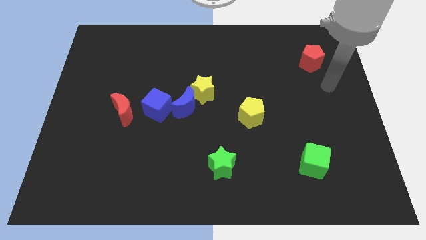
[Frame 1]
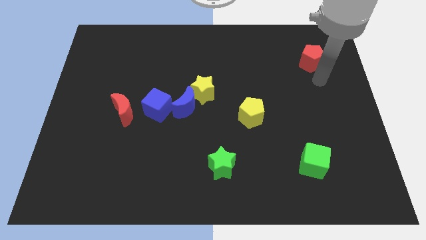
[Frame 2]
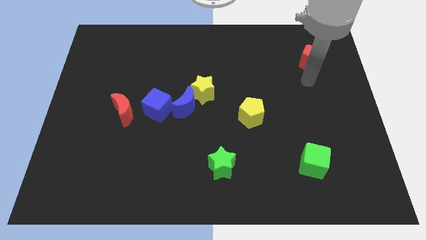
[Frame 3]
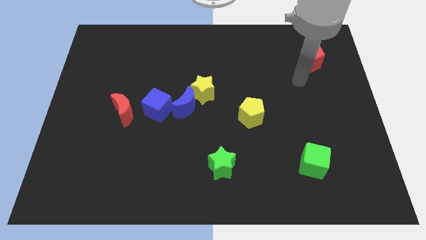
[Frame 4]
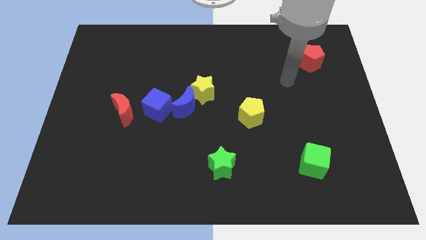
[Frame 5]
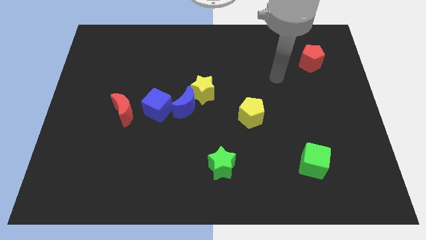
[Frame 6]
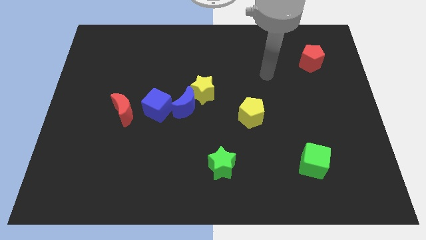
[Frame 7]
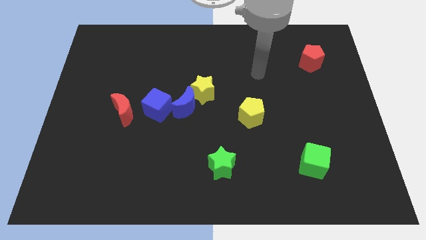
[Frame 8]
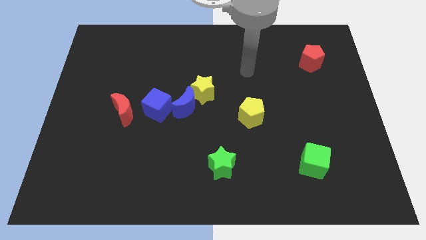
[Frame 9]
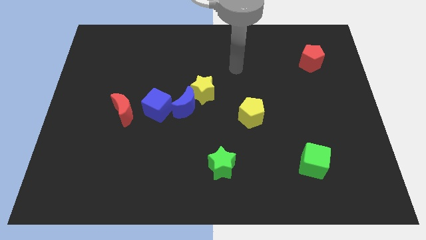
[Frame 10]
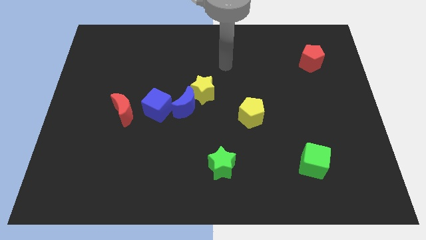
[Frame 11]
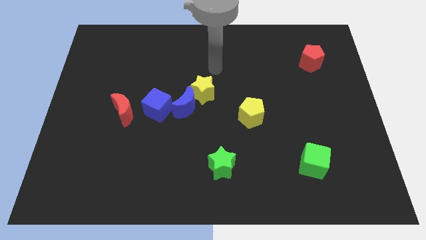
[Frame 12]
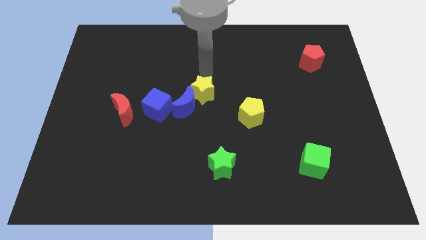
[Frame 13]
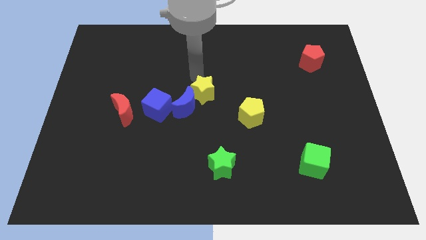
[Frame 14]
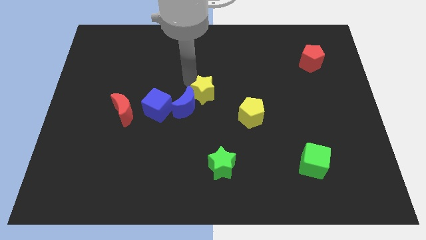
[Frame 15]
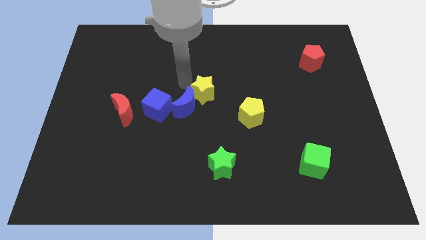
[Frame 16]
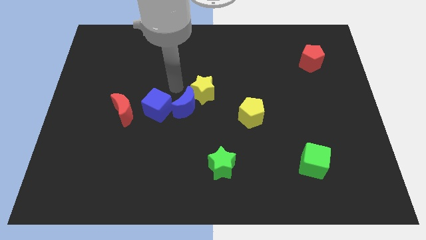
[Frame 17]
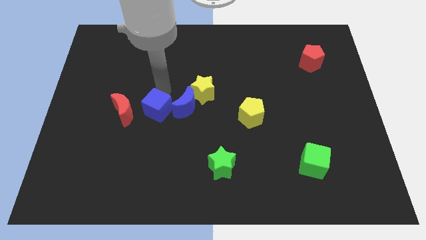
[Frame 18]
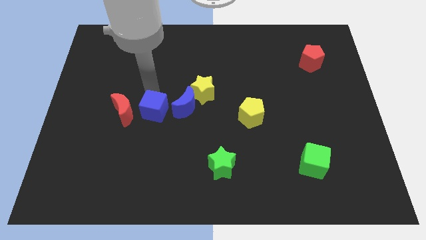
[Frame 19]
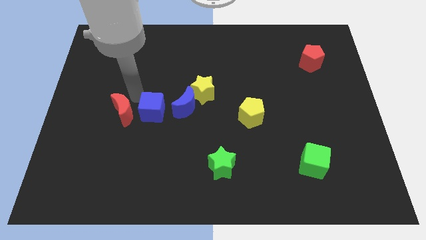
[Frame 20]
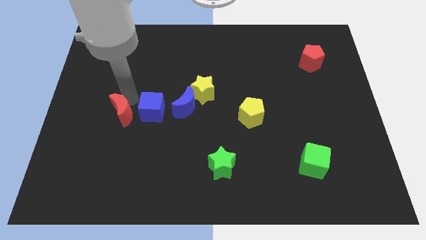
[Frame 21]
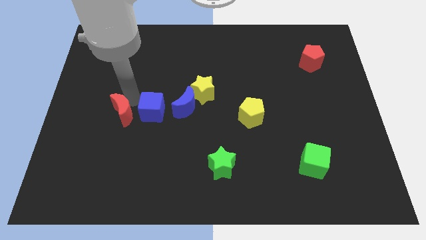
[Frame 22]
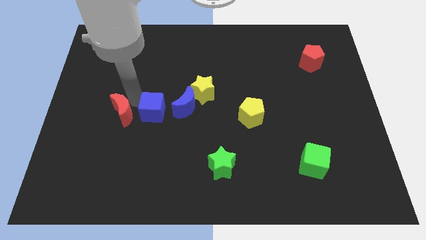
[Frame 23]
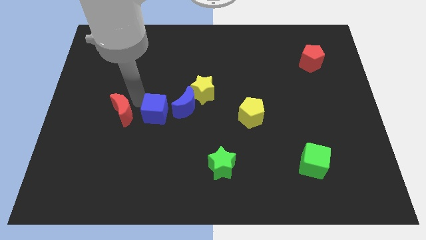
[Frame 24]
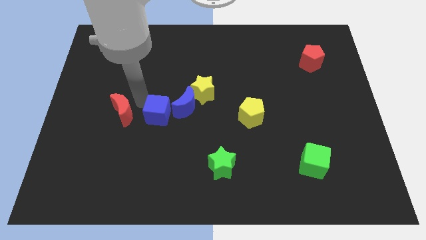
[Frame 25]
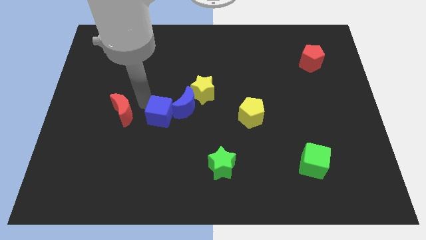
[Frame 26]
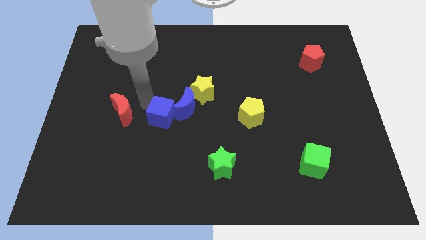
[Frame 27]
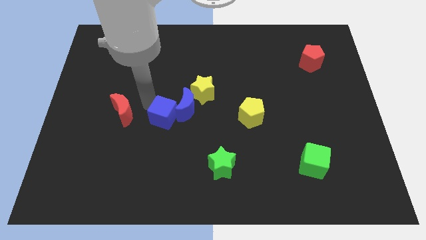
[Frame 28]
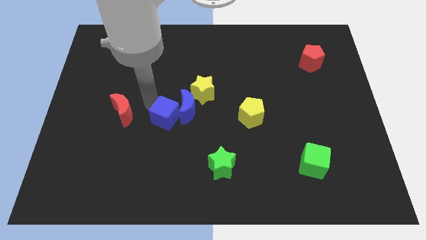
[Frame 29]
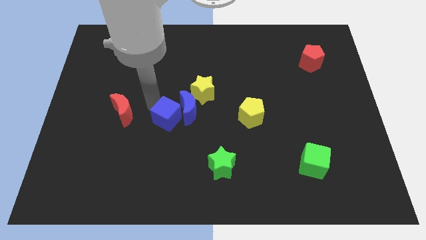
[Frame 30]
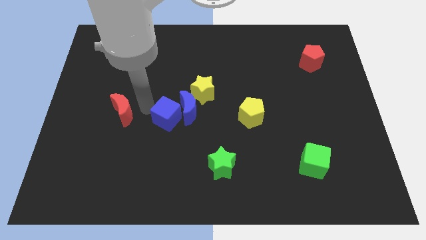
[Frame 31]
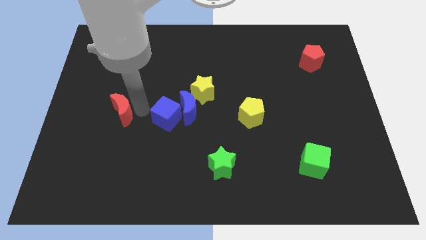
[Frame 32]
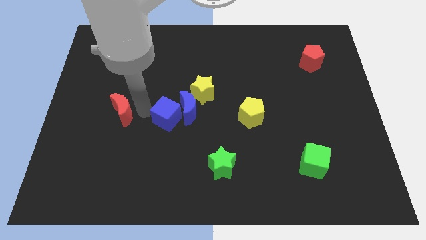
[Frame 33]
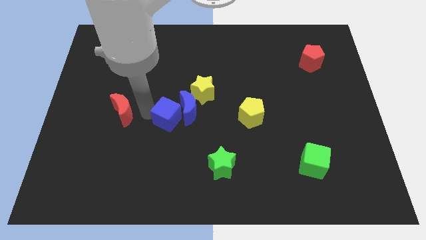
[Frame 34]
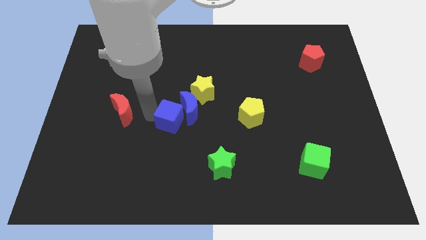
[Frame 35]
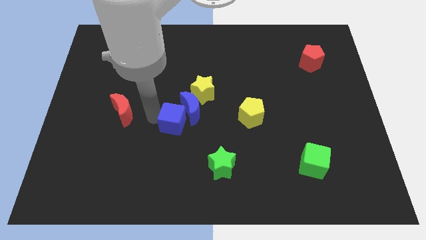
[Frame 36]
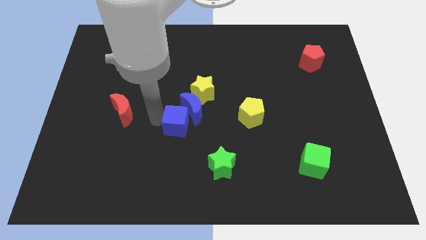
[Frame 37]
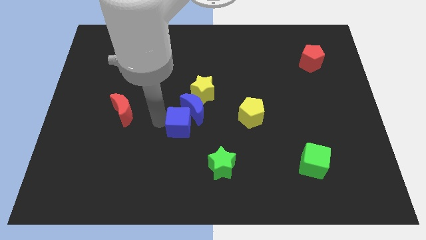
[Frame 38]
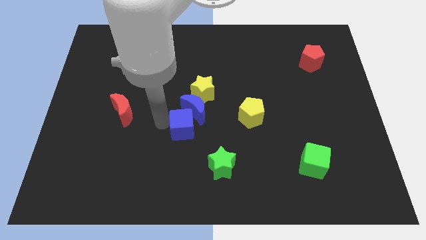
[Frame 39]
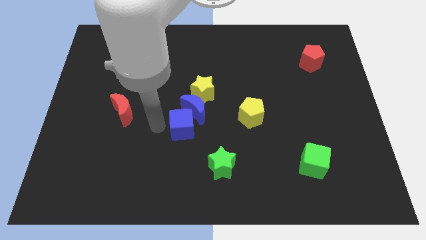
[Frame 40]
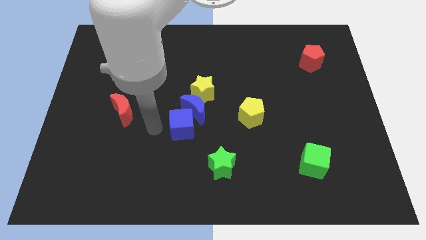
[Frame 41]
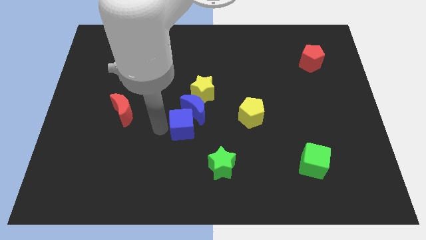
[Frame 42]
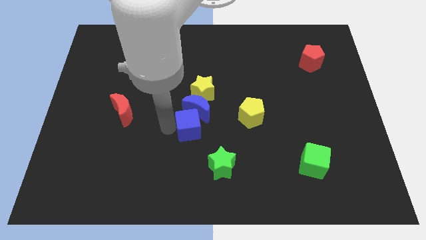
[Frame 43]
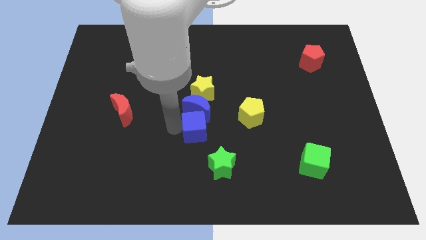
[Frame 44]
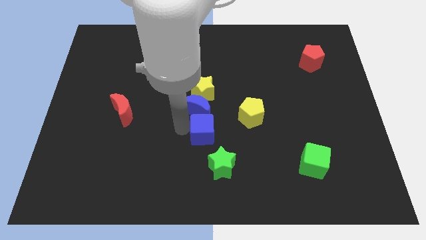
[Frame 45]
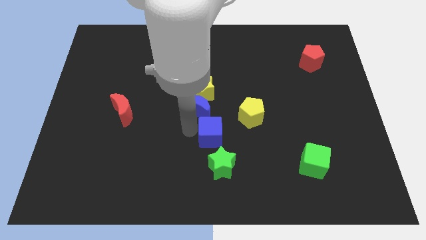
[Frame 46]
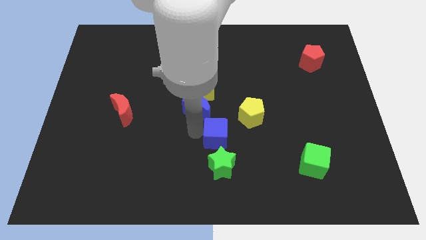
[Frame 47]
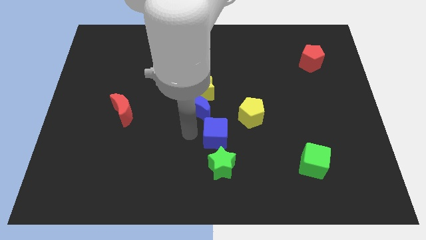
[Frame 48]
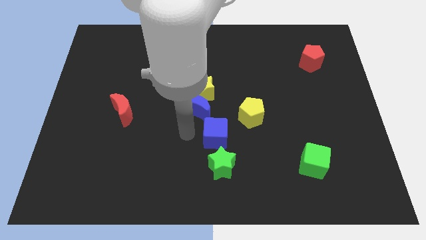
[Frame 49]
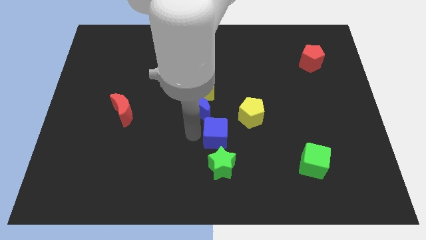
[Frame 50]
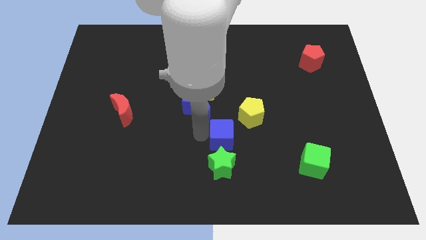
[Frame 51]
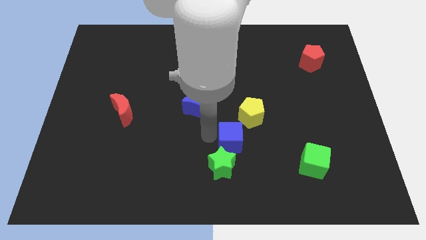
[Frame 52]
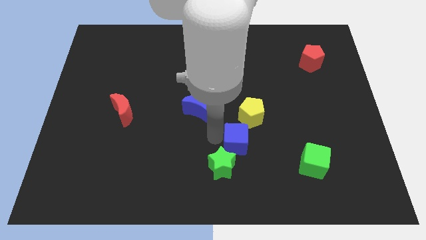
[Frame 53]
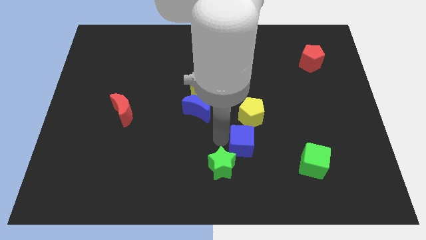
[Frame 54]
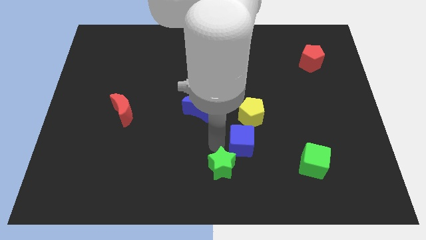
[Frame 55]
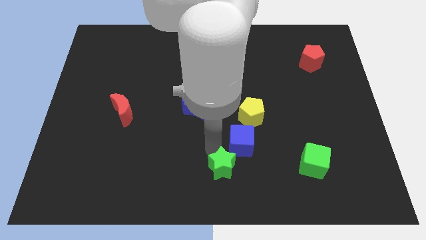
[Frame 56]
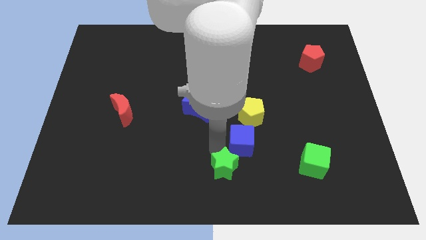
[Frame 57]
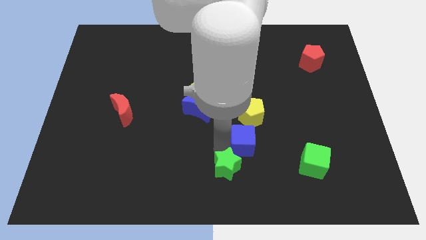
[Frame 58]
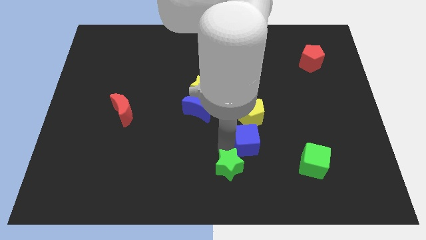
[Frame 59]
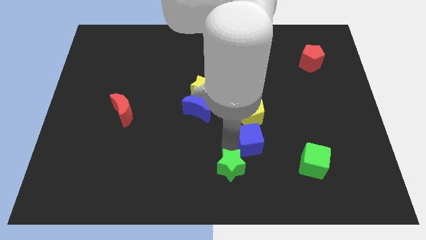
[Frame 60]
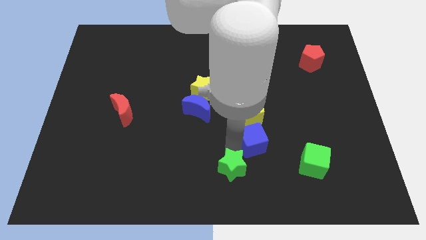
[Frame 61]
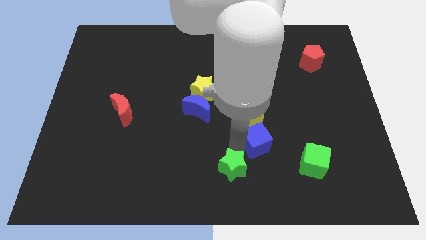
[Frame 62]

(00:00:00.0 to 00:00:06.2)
move the blue cube to the bottom right of the yellow pentagon

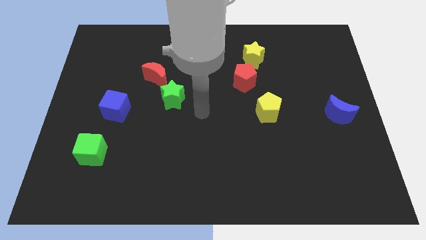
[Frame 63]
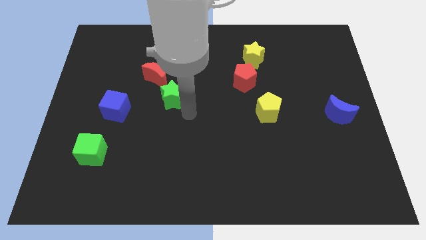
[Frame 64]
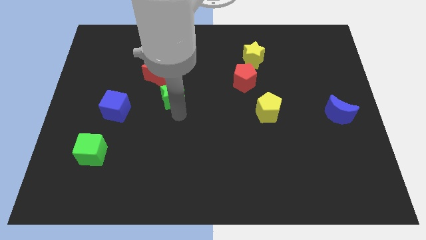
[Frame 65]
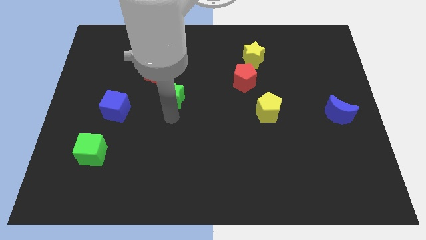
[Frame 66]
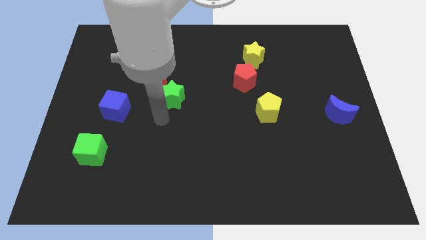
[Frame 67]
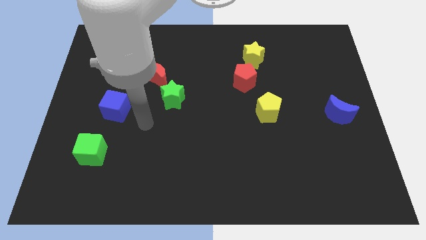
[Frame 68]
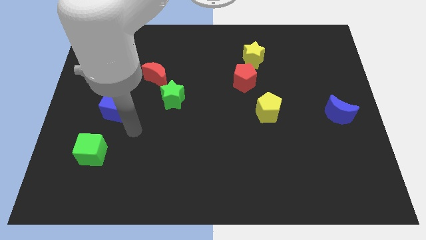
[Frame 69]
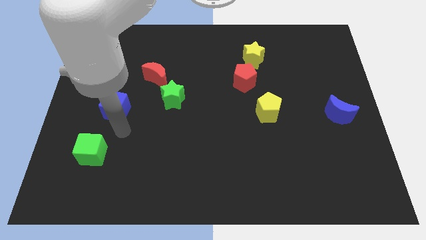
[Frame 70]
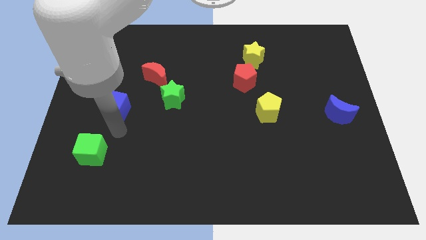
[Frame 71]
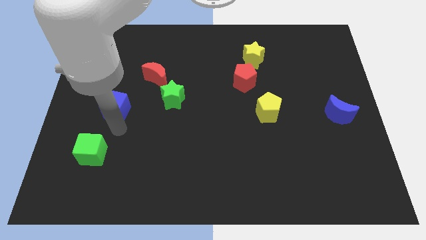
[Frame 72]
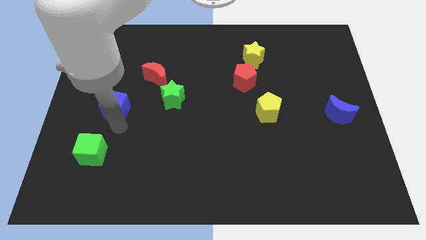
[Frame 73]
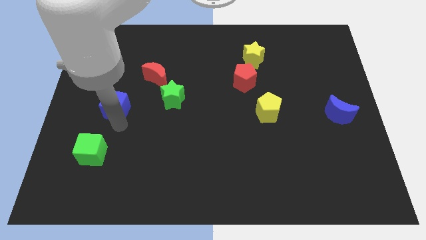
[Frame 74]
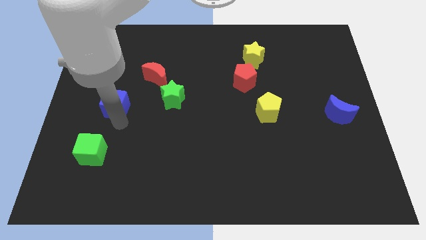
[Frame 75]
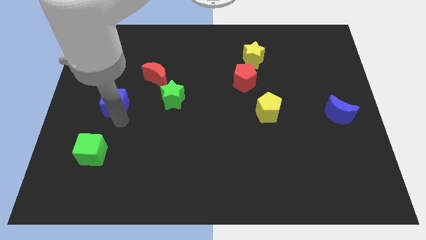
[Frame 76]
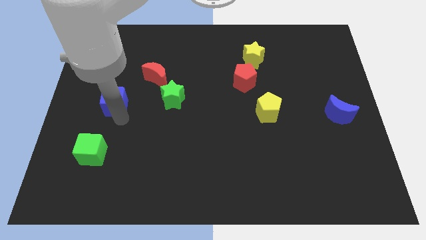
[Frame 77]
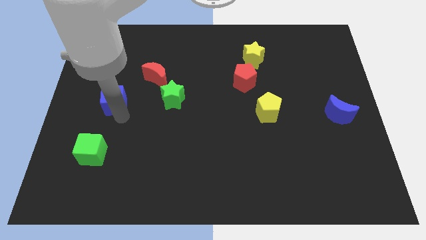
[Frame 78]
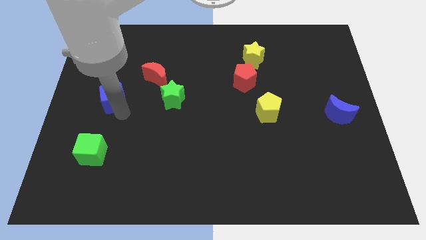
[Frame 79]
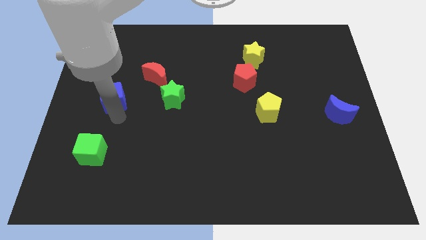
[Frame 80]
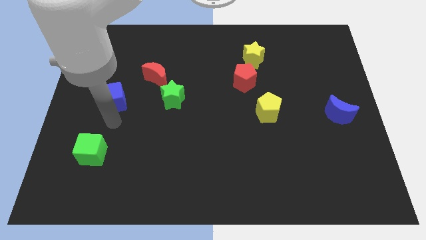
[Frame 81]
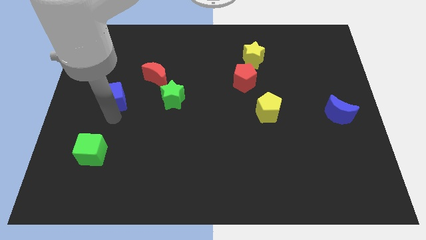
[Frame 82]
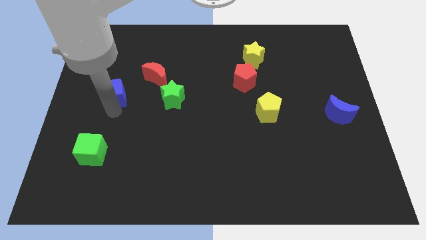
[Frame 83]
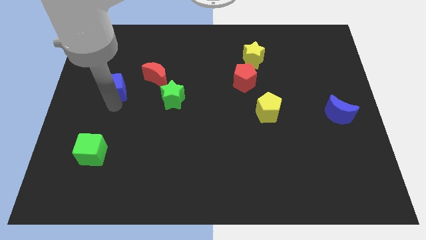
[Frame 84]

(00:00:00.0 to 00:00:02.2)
slide the blue cube left of the red moon
